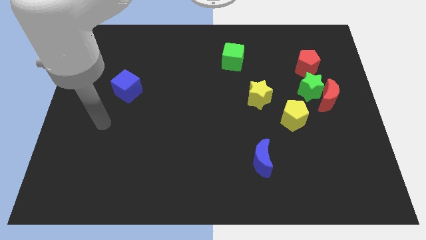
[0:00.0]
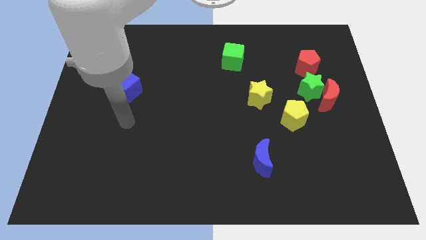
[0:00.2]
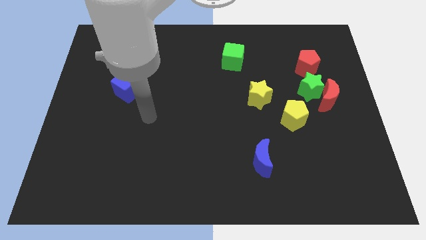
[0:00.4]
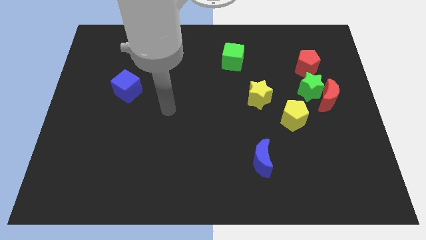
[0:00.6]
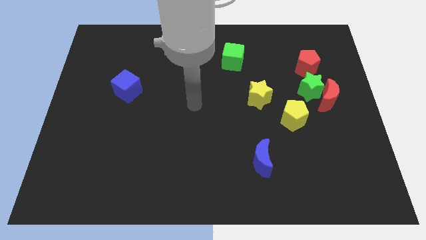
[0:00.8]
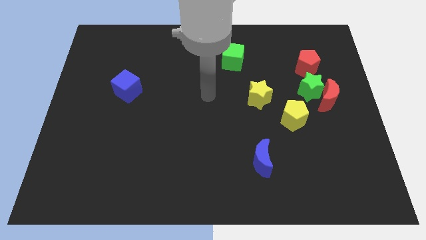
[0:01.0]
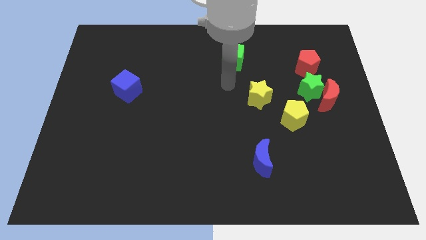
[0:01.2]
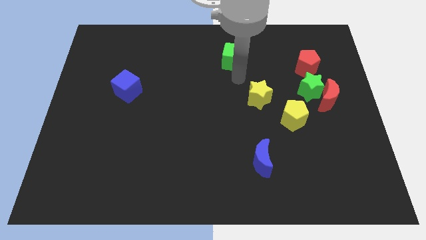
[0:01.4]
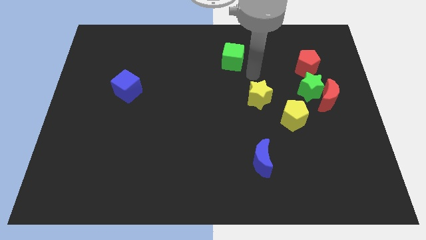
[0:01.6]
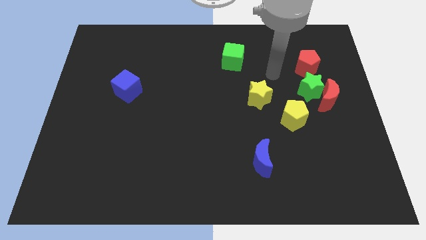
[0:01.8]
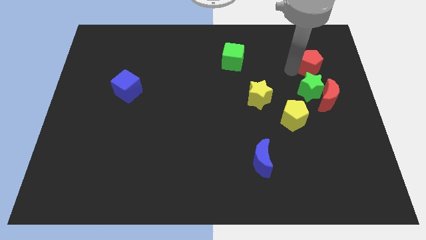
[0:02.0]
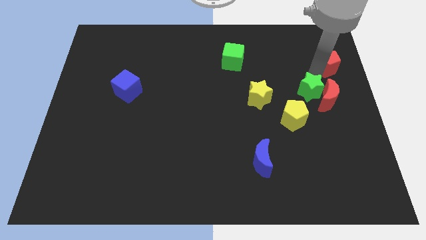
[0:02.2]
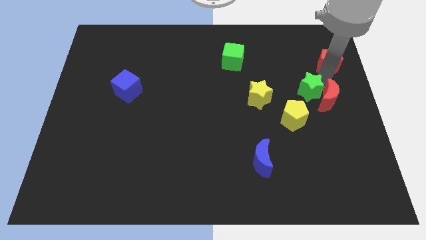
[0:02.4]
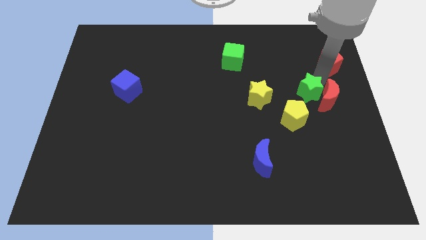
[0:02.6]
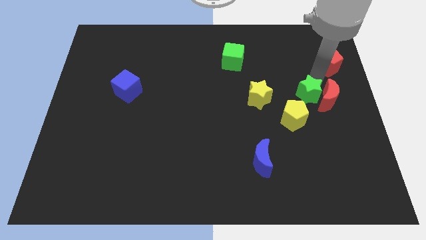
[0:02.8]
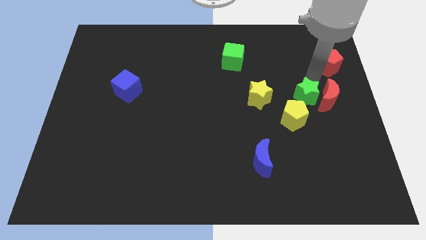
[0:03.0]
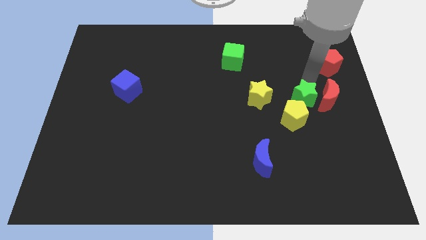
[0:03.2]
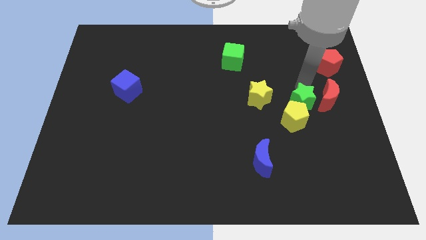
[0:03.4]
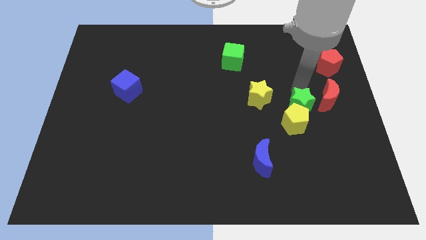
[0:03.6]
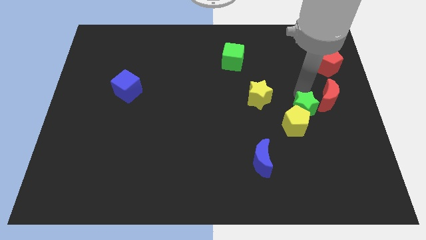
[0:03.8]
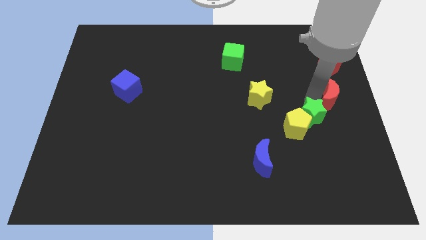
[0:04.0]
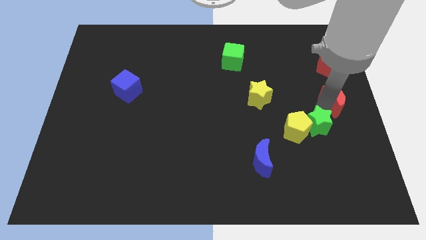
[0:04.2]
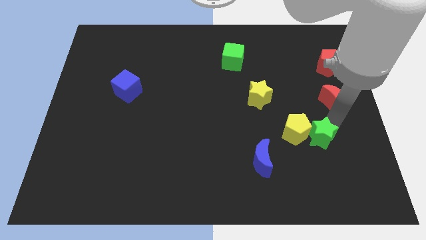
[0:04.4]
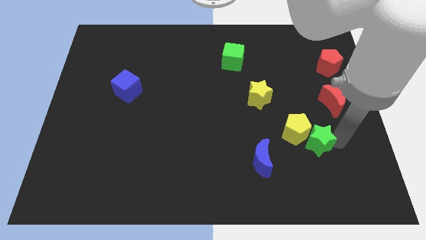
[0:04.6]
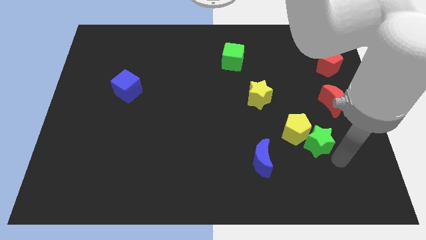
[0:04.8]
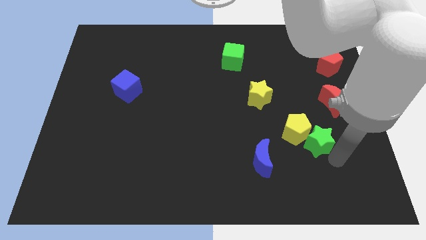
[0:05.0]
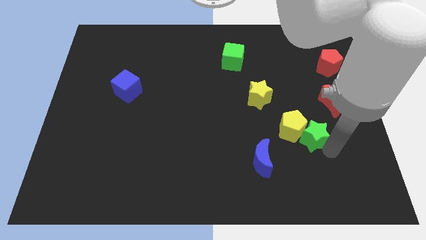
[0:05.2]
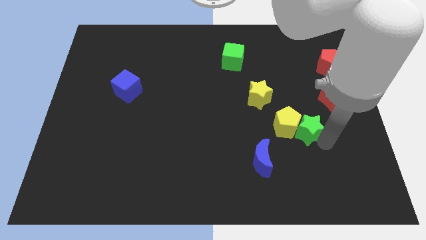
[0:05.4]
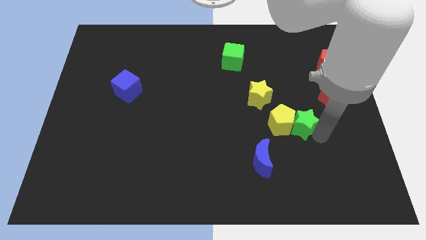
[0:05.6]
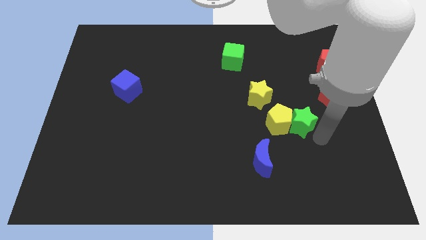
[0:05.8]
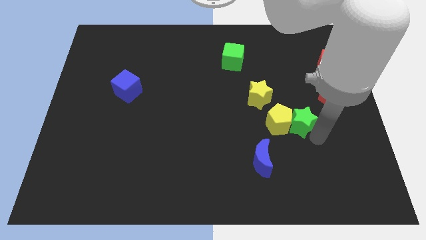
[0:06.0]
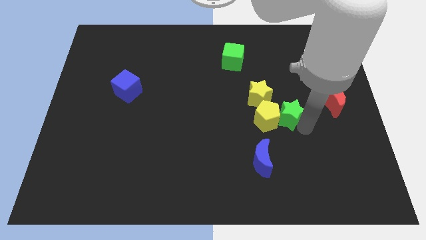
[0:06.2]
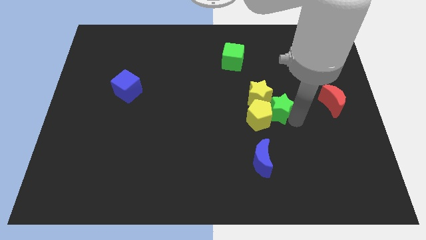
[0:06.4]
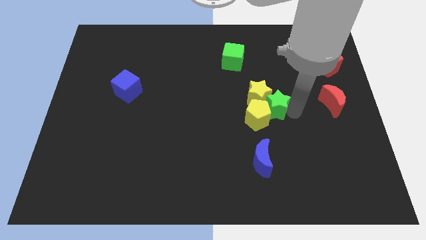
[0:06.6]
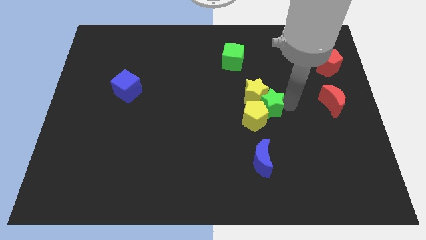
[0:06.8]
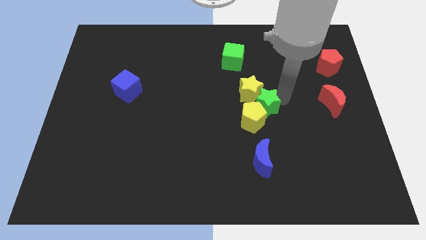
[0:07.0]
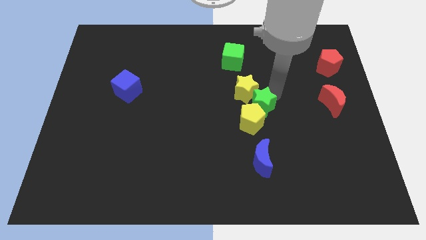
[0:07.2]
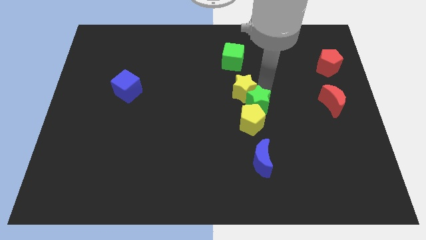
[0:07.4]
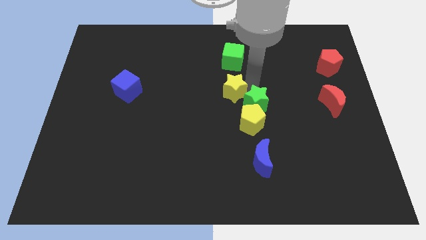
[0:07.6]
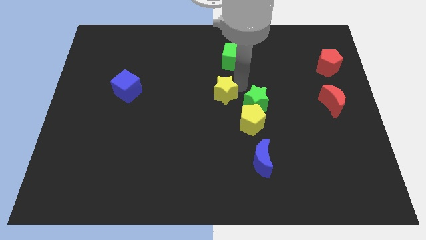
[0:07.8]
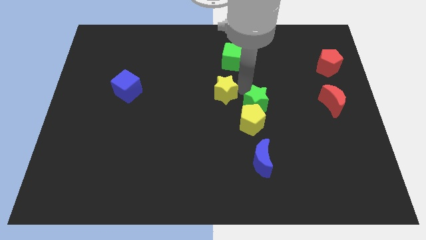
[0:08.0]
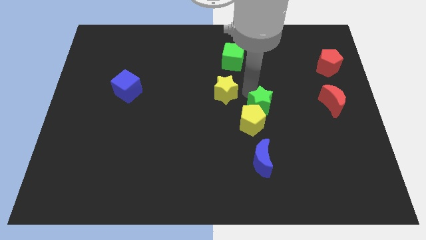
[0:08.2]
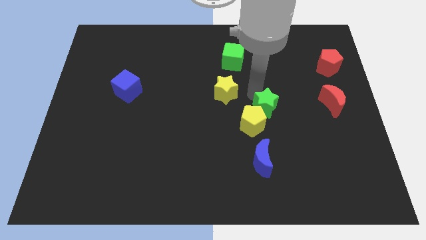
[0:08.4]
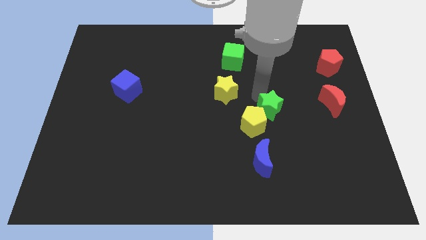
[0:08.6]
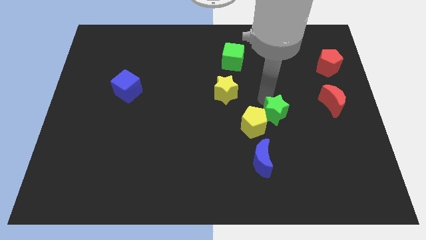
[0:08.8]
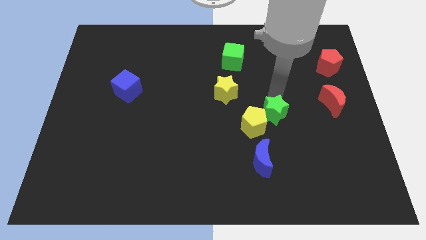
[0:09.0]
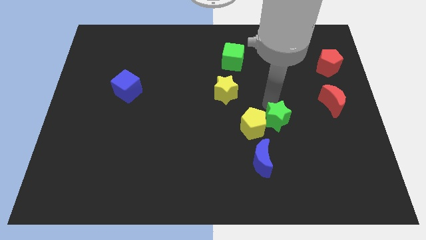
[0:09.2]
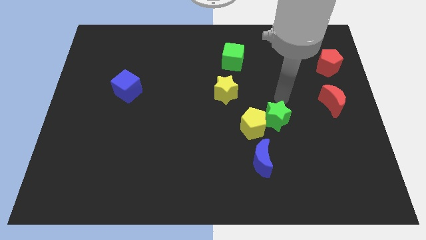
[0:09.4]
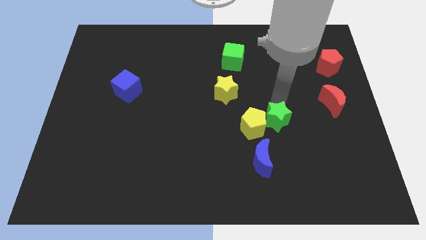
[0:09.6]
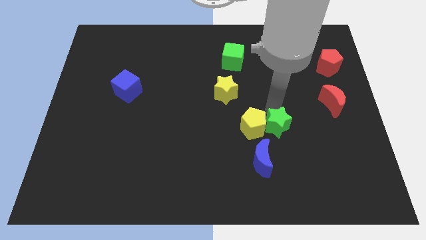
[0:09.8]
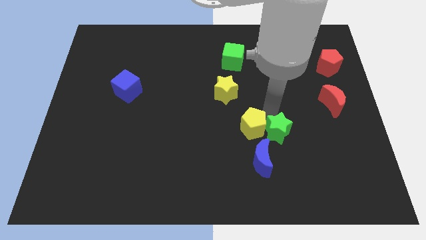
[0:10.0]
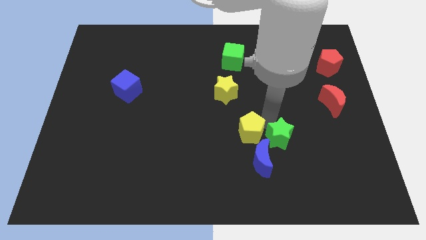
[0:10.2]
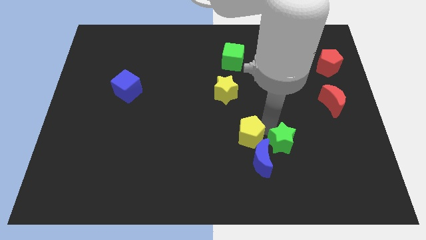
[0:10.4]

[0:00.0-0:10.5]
put the green star to the blue moon

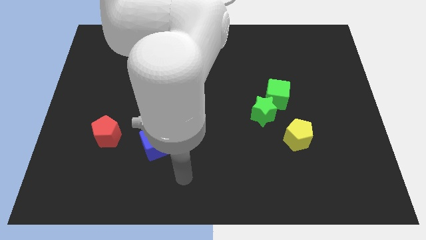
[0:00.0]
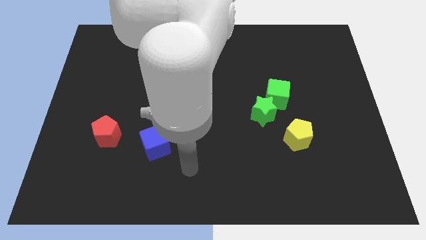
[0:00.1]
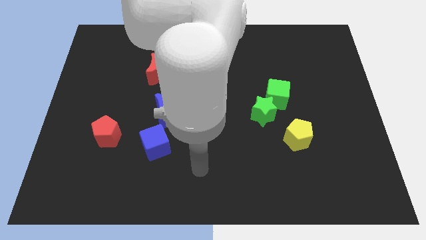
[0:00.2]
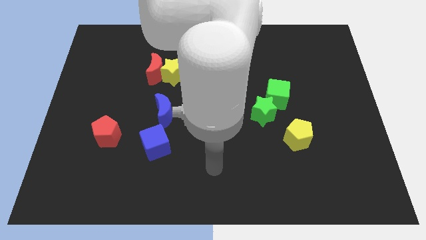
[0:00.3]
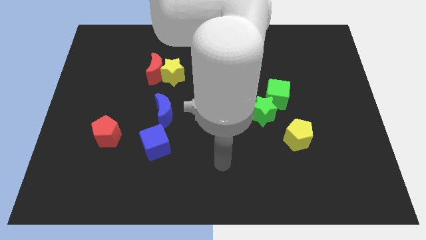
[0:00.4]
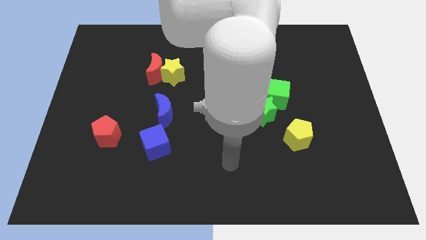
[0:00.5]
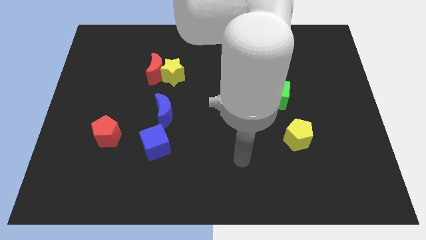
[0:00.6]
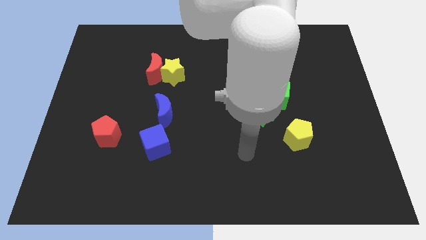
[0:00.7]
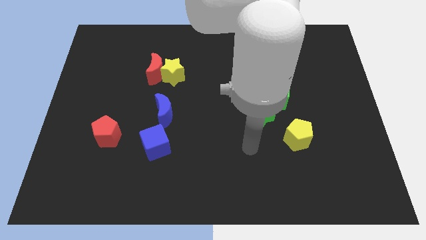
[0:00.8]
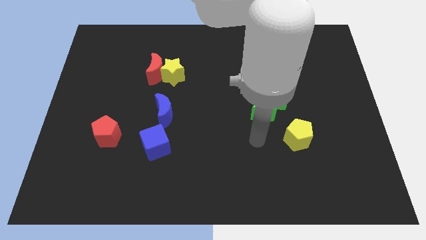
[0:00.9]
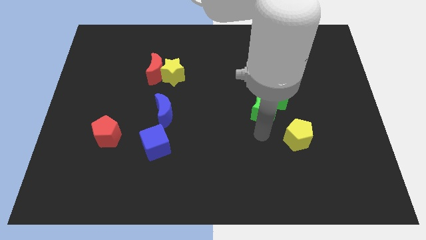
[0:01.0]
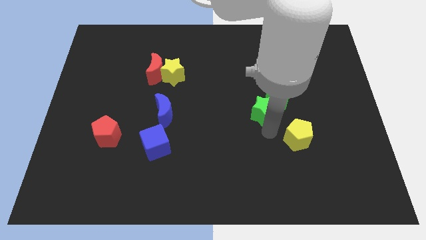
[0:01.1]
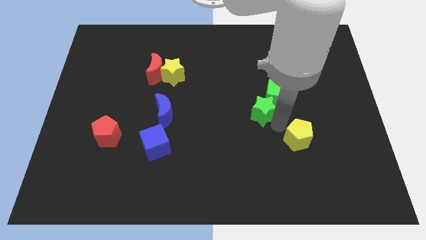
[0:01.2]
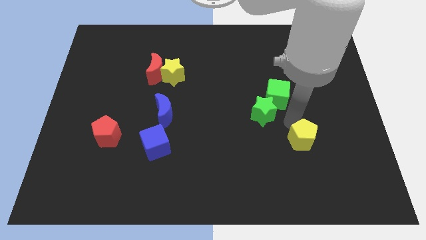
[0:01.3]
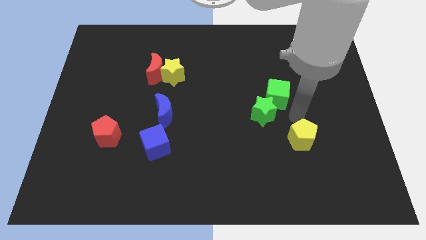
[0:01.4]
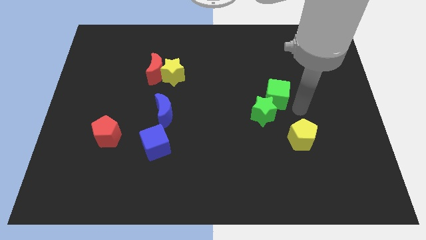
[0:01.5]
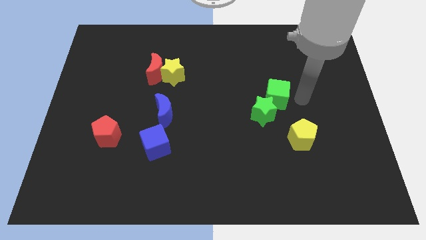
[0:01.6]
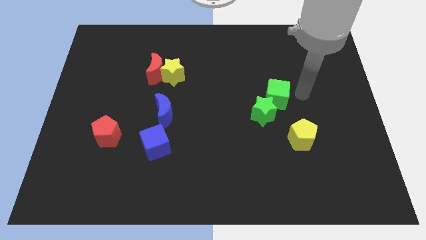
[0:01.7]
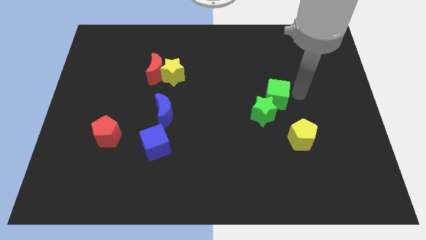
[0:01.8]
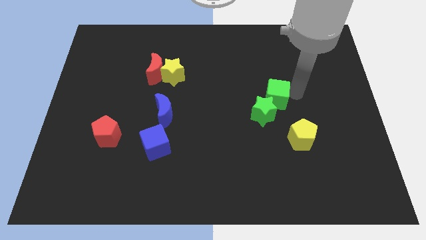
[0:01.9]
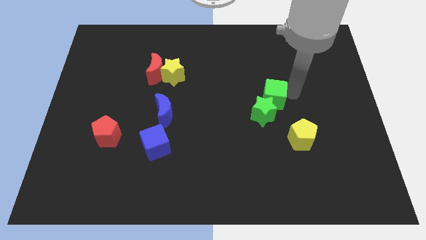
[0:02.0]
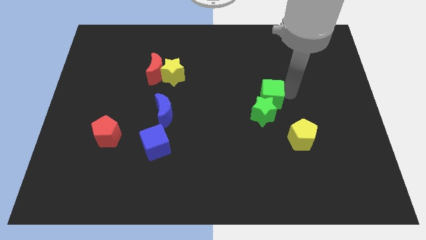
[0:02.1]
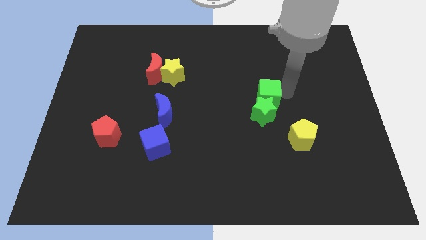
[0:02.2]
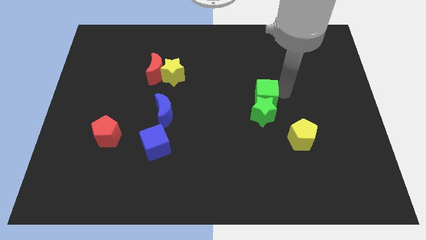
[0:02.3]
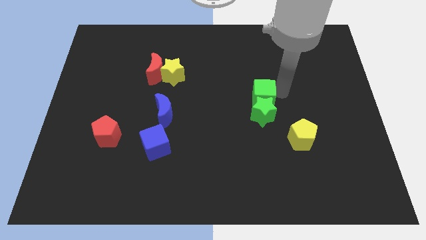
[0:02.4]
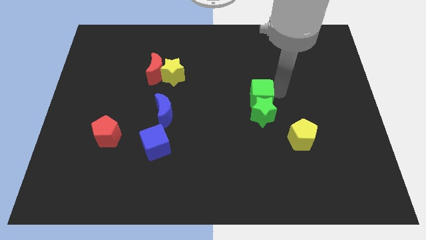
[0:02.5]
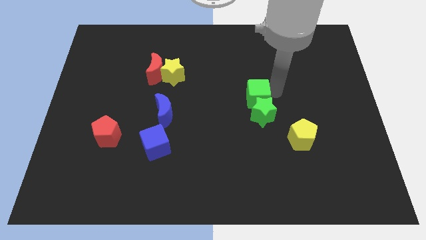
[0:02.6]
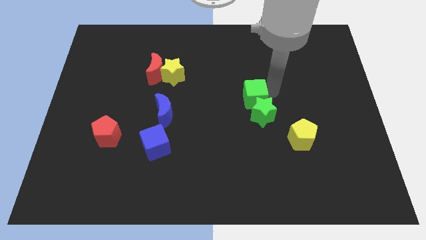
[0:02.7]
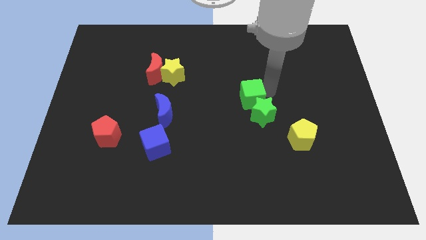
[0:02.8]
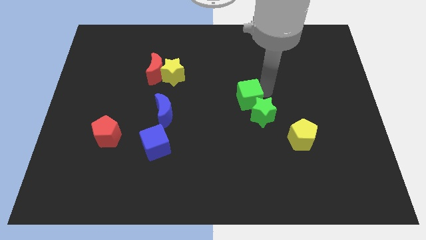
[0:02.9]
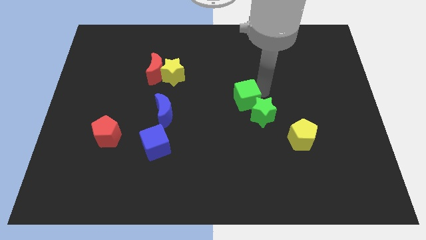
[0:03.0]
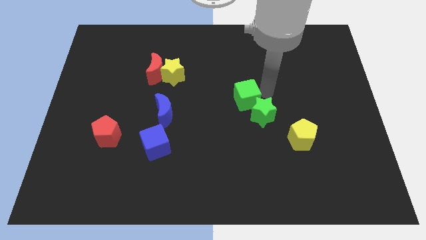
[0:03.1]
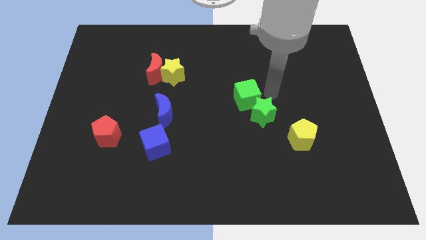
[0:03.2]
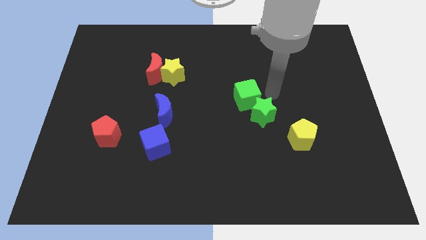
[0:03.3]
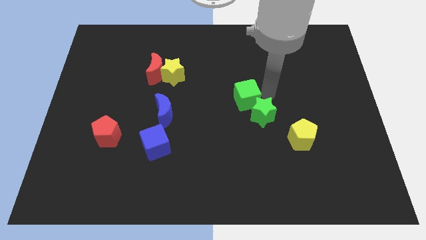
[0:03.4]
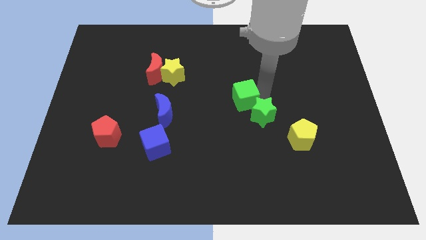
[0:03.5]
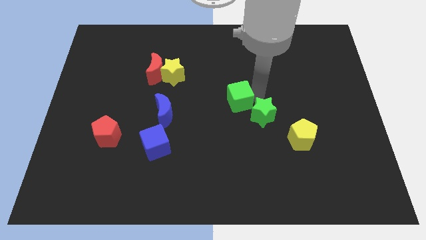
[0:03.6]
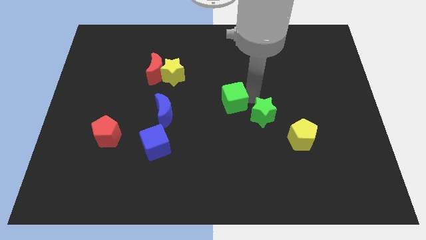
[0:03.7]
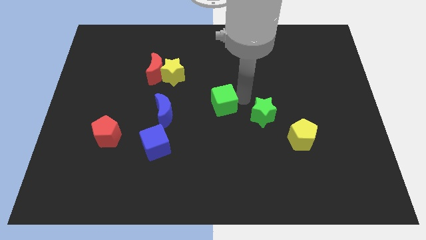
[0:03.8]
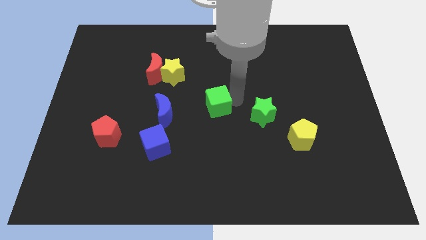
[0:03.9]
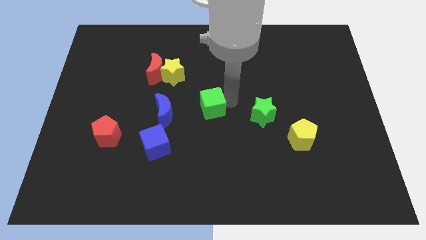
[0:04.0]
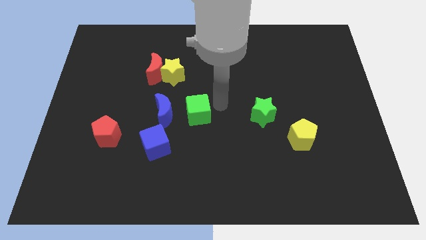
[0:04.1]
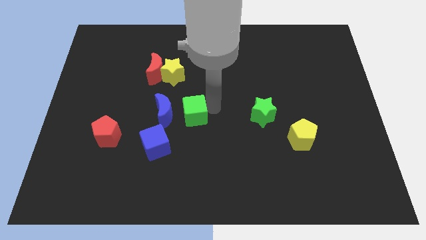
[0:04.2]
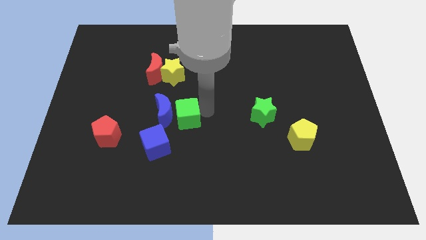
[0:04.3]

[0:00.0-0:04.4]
move the green cube towards the blue moon
